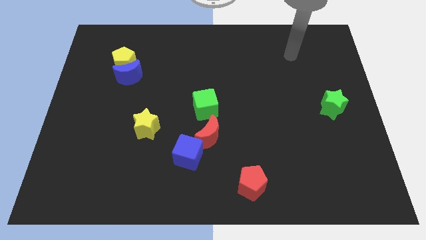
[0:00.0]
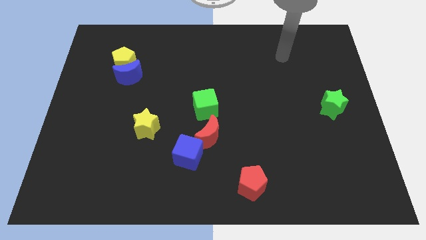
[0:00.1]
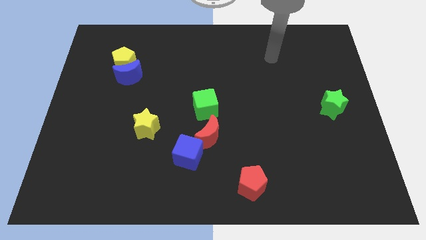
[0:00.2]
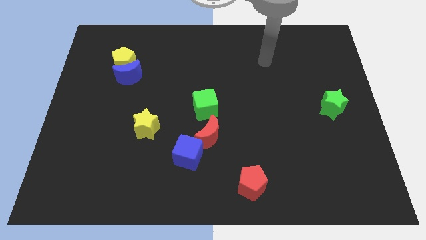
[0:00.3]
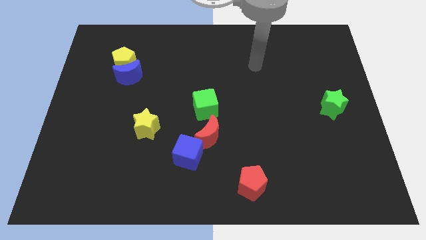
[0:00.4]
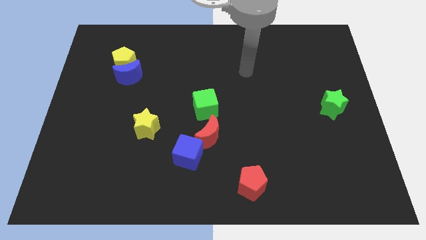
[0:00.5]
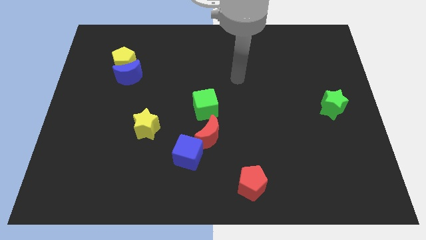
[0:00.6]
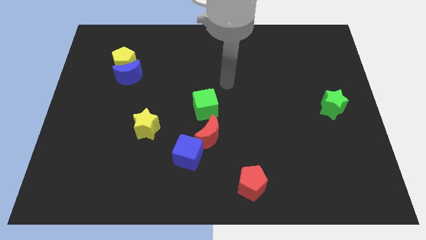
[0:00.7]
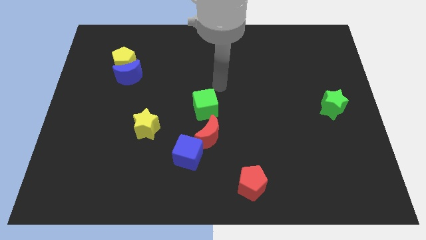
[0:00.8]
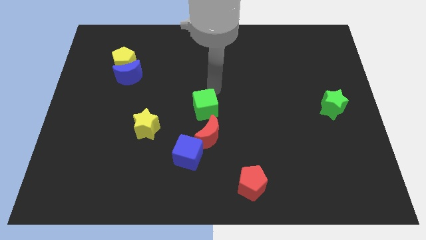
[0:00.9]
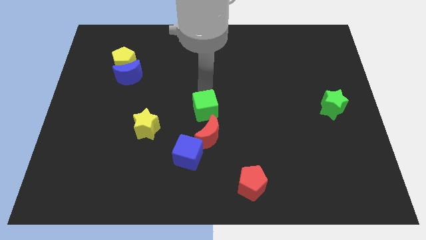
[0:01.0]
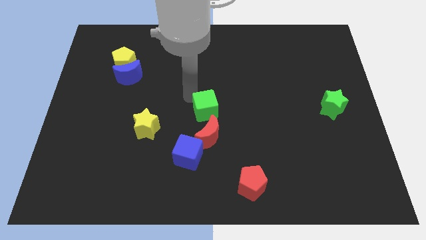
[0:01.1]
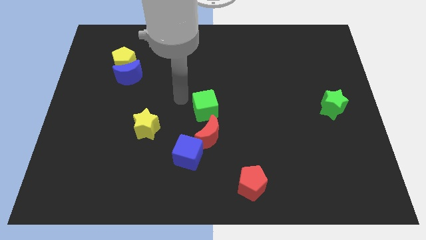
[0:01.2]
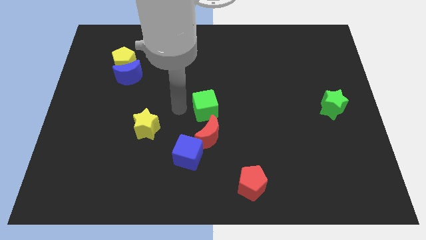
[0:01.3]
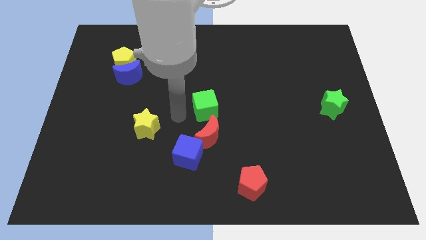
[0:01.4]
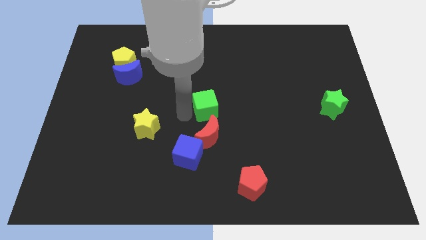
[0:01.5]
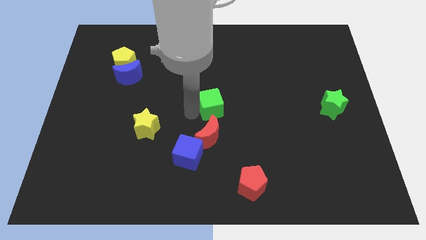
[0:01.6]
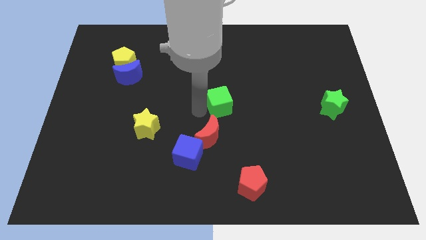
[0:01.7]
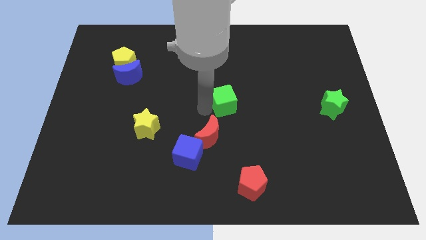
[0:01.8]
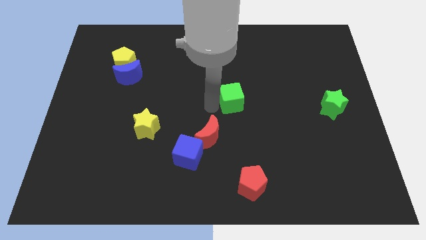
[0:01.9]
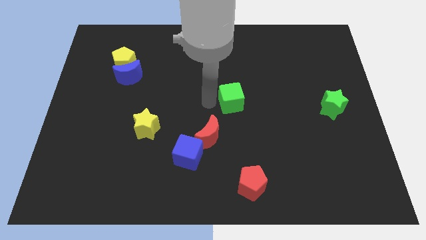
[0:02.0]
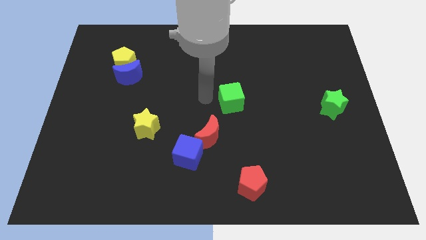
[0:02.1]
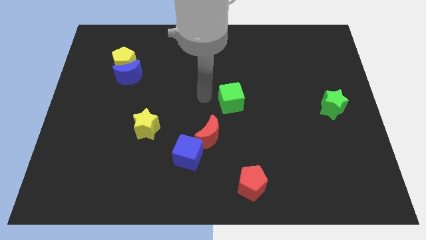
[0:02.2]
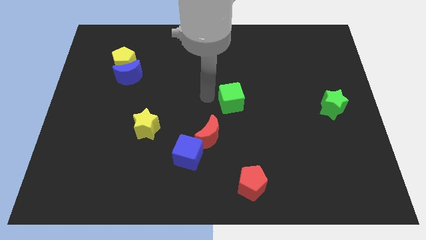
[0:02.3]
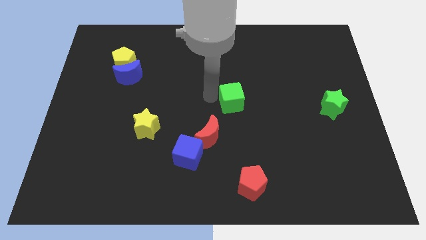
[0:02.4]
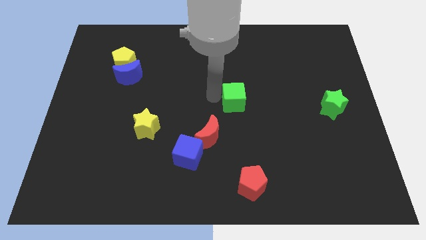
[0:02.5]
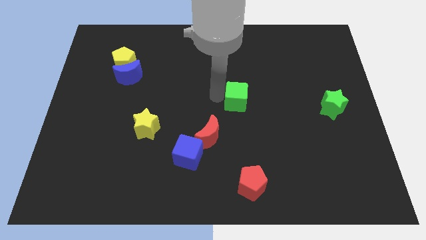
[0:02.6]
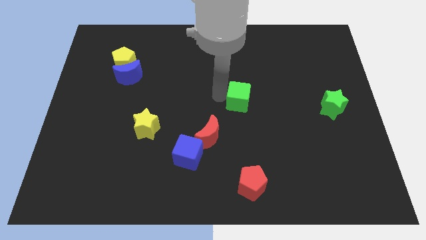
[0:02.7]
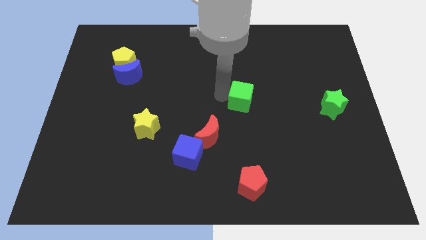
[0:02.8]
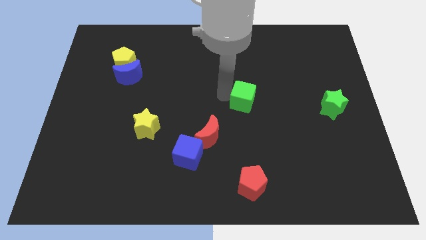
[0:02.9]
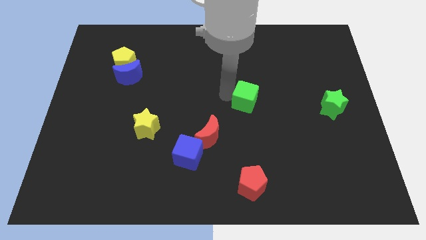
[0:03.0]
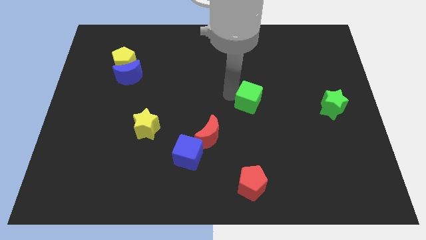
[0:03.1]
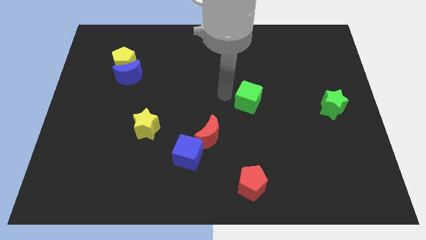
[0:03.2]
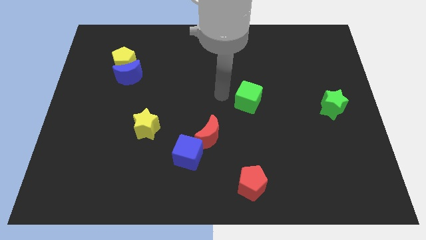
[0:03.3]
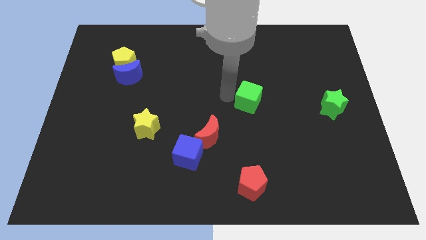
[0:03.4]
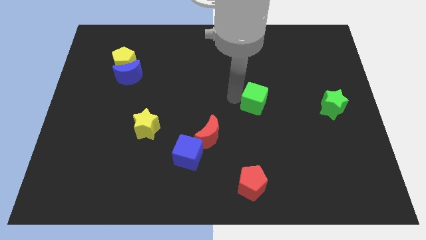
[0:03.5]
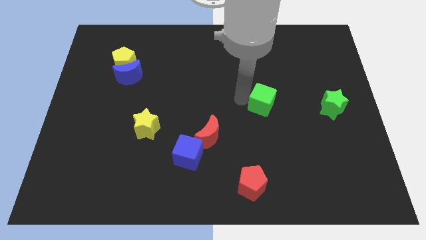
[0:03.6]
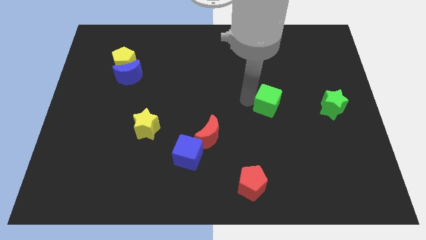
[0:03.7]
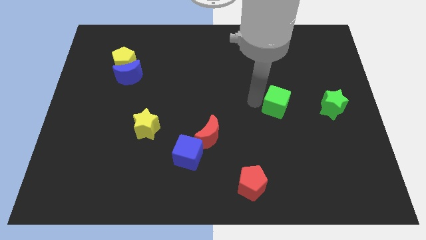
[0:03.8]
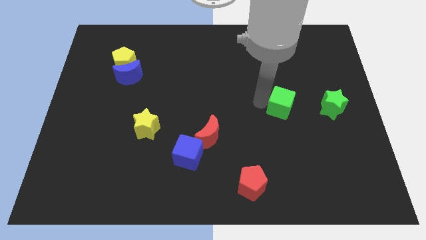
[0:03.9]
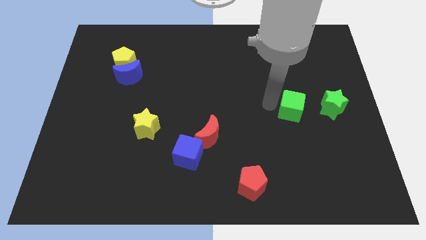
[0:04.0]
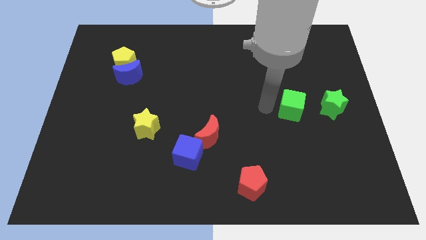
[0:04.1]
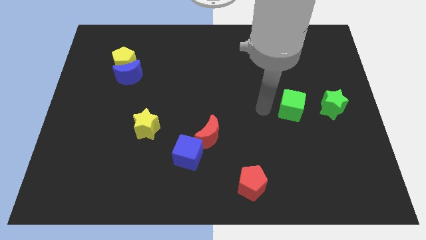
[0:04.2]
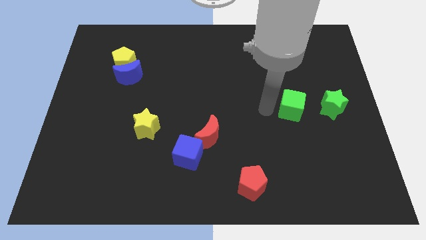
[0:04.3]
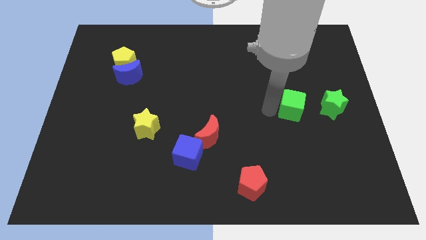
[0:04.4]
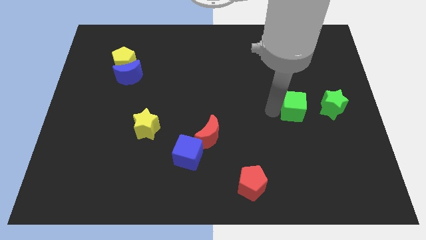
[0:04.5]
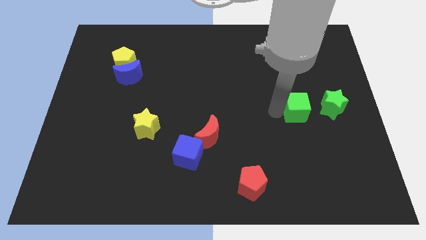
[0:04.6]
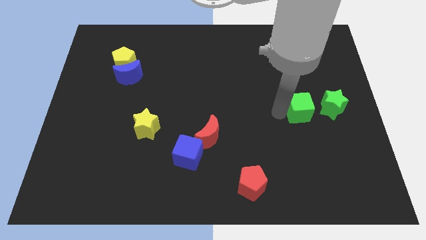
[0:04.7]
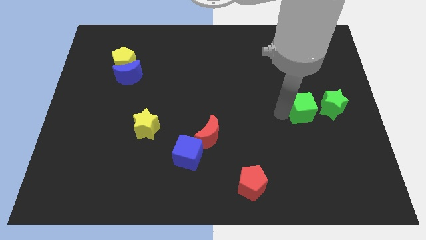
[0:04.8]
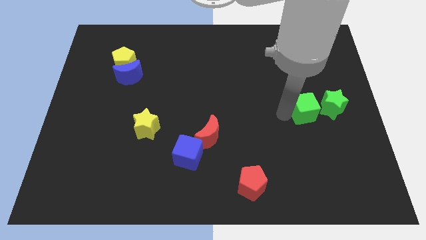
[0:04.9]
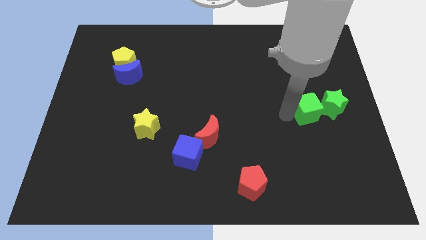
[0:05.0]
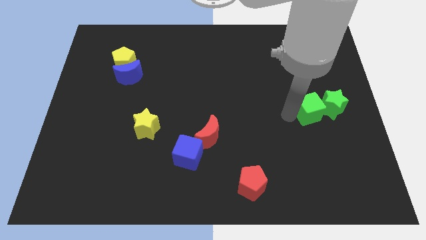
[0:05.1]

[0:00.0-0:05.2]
push the green cube towards the green star
